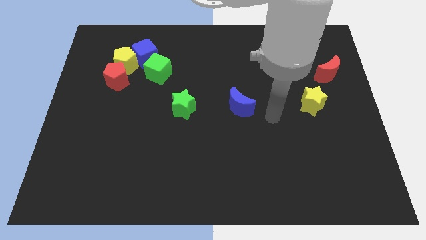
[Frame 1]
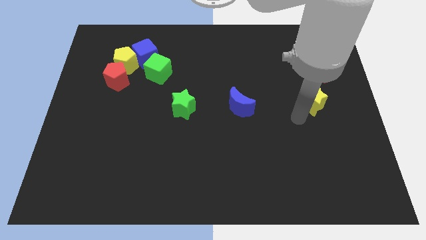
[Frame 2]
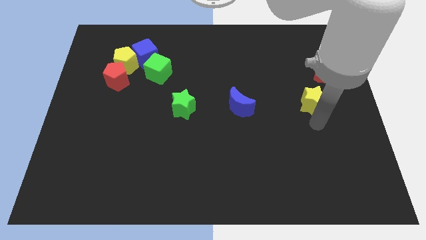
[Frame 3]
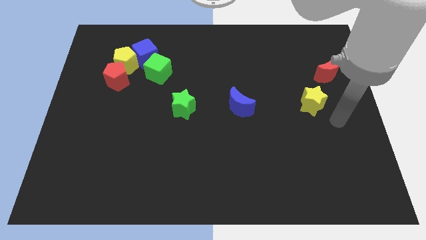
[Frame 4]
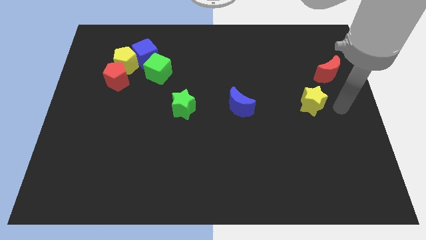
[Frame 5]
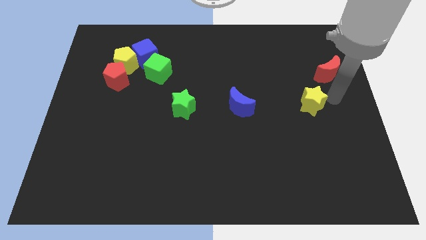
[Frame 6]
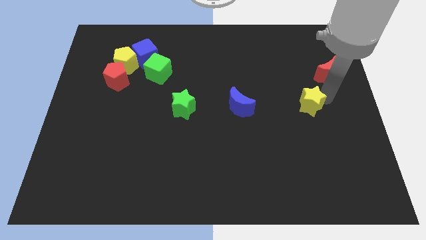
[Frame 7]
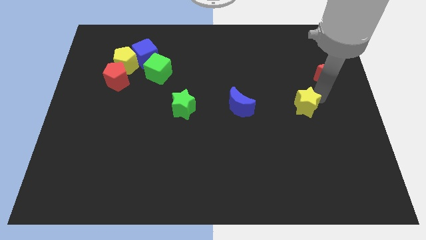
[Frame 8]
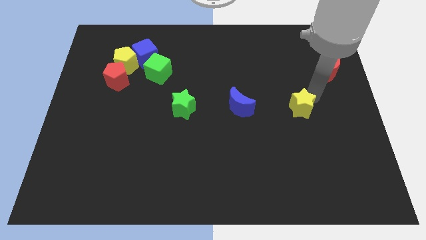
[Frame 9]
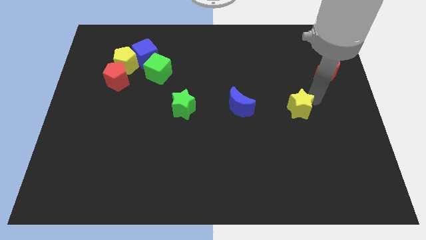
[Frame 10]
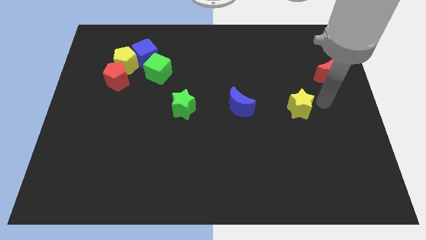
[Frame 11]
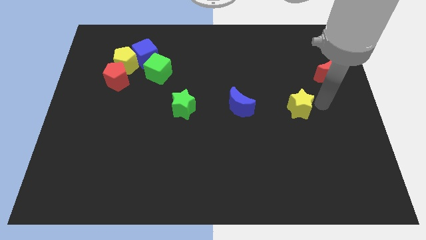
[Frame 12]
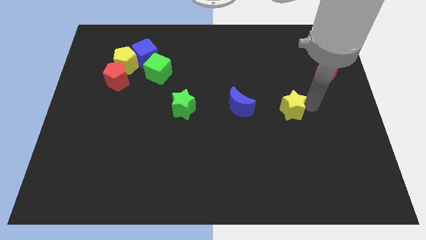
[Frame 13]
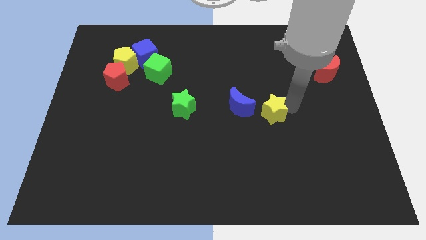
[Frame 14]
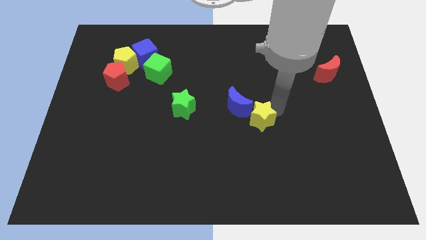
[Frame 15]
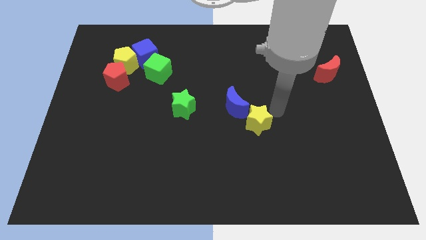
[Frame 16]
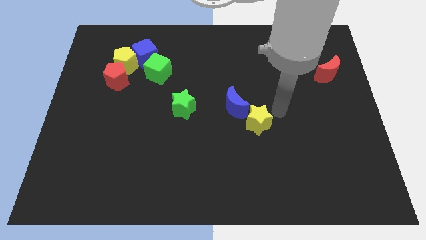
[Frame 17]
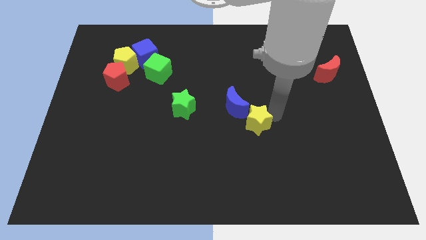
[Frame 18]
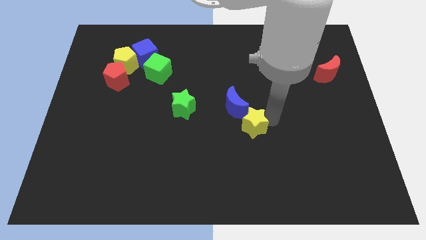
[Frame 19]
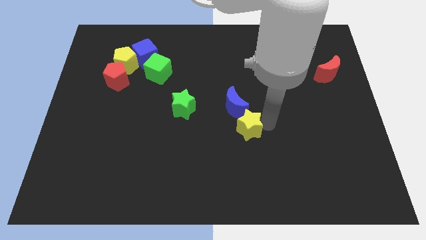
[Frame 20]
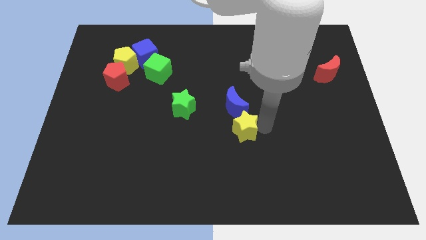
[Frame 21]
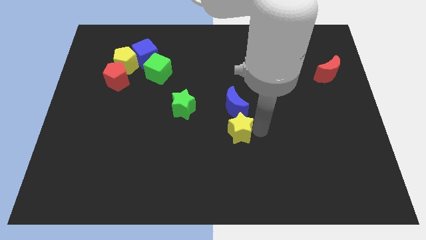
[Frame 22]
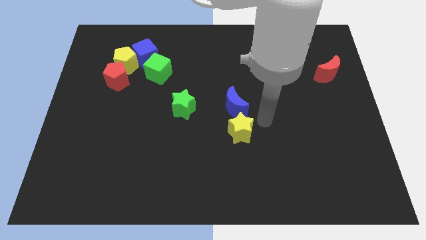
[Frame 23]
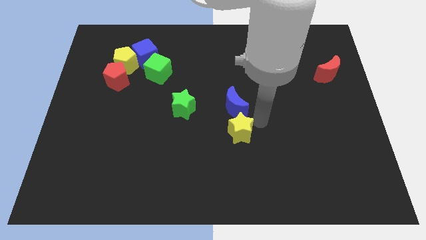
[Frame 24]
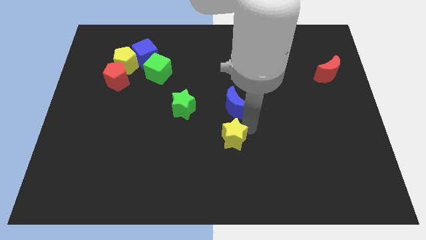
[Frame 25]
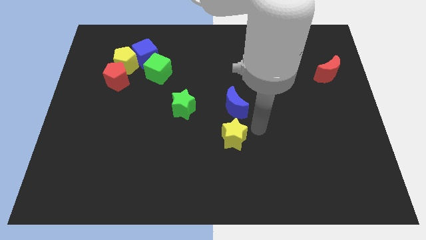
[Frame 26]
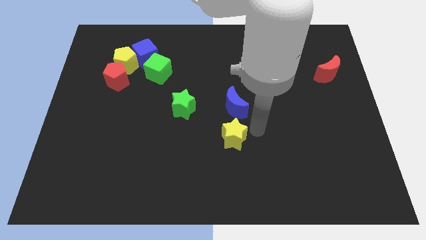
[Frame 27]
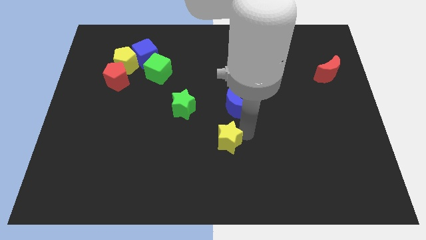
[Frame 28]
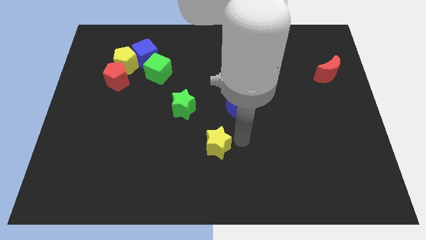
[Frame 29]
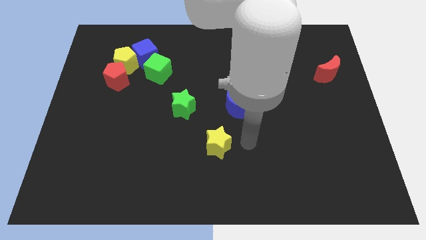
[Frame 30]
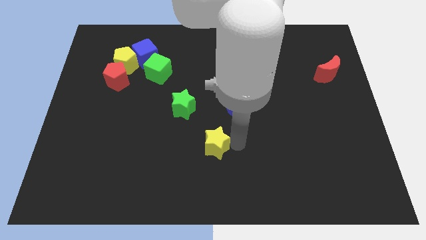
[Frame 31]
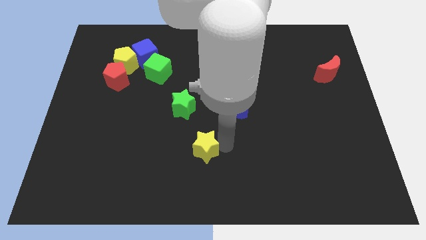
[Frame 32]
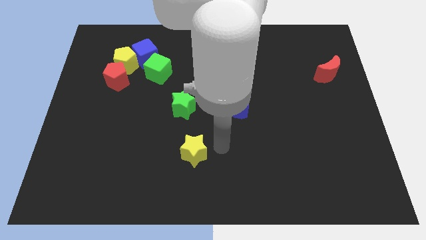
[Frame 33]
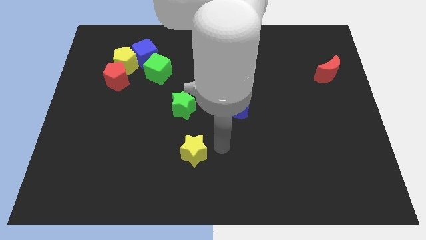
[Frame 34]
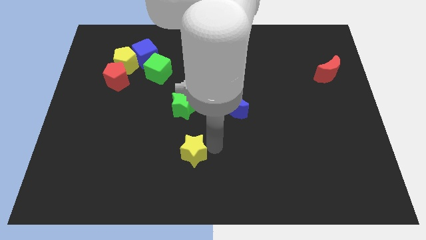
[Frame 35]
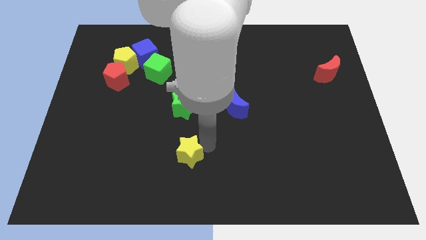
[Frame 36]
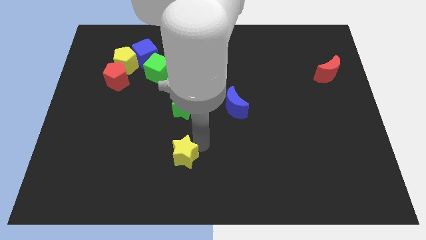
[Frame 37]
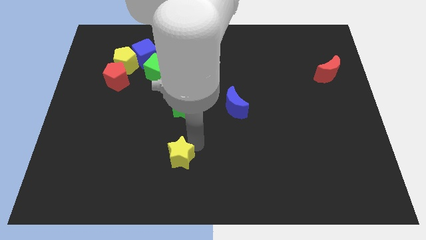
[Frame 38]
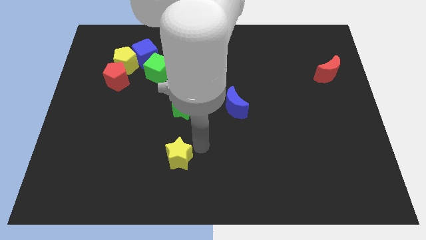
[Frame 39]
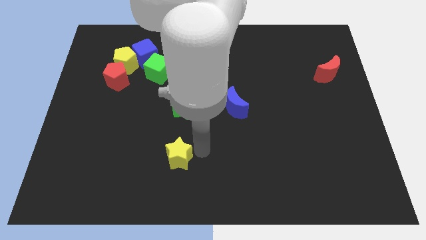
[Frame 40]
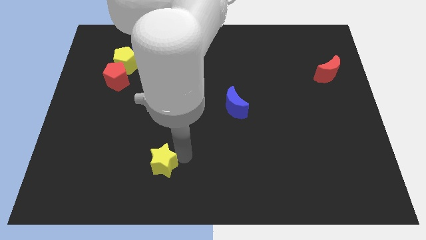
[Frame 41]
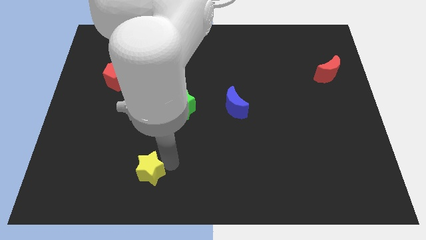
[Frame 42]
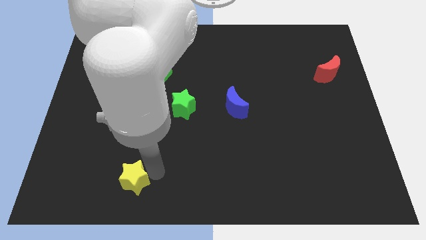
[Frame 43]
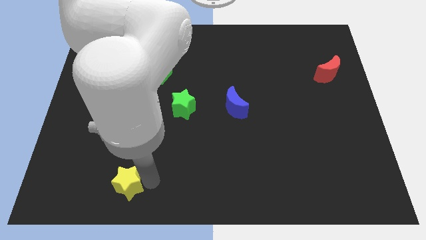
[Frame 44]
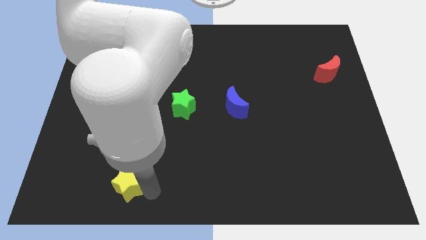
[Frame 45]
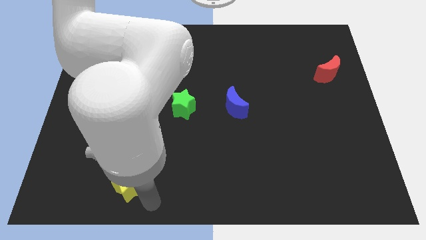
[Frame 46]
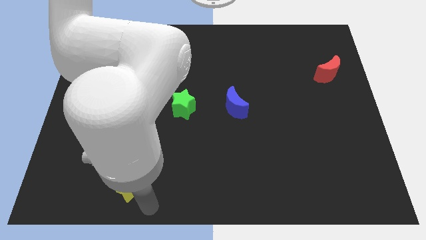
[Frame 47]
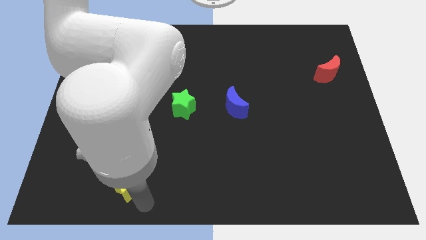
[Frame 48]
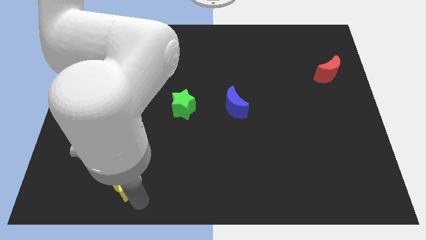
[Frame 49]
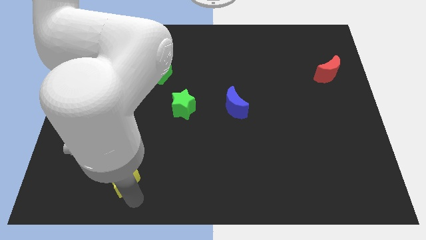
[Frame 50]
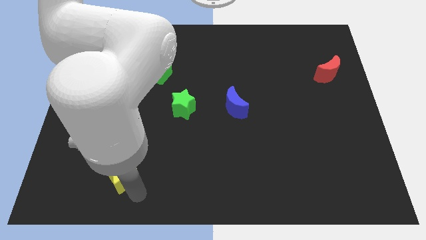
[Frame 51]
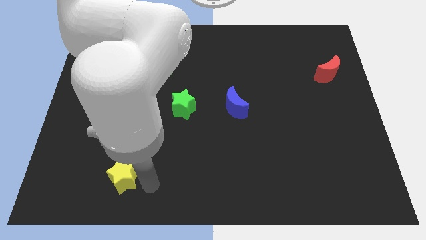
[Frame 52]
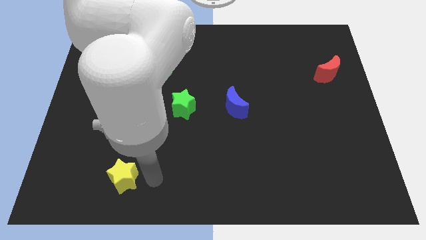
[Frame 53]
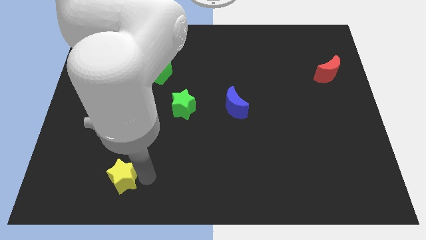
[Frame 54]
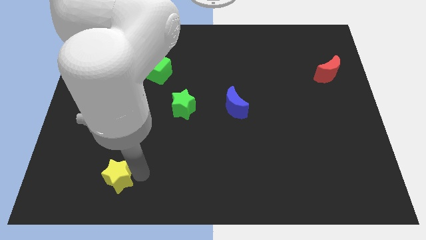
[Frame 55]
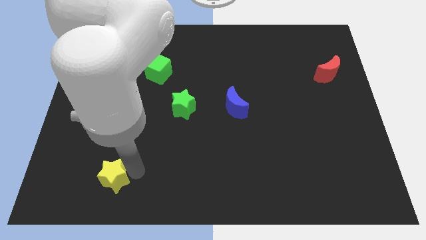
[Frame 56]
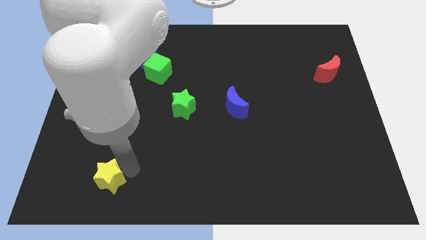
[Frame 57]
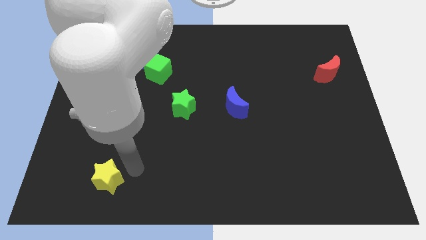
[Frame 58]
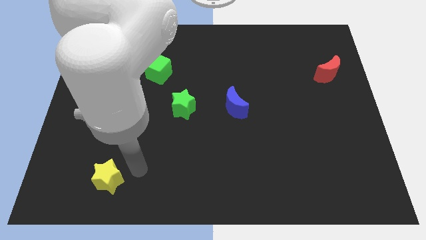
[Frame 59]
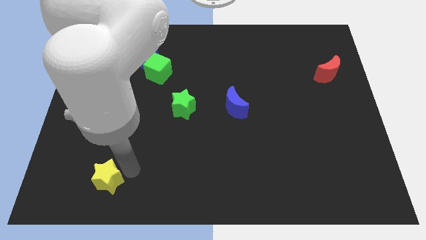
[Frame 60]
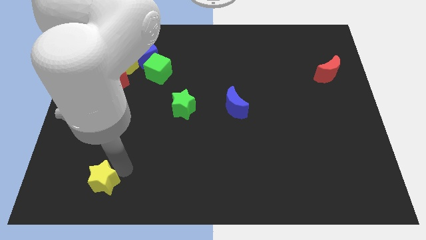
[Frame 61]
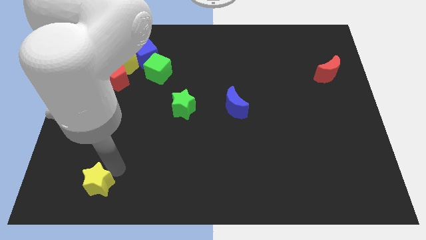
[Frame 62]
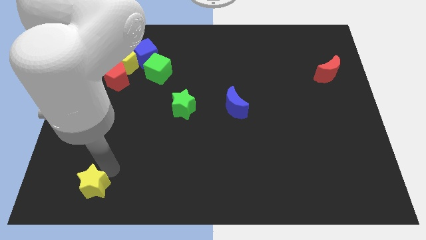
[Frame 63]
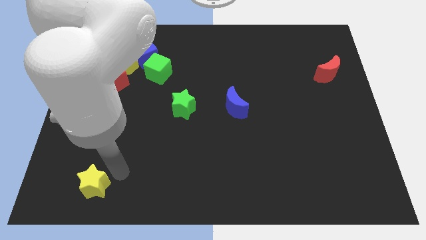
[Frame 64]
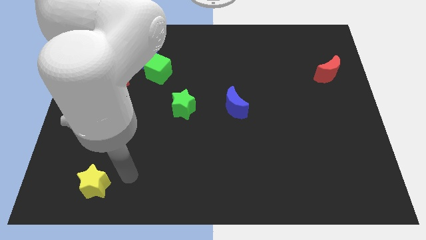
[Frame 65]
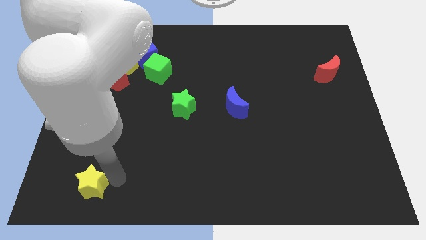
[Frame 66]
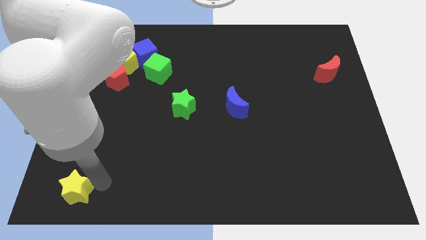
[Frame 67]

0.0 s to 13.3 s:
put the yellow star to the bottom left
